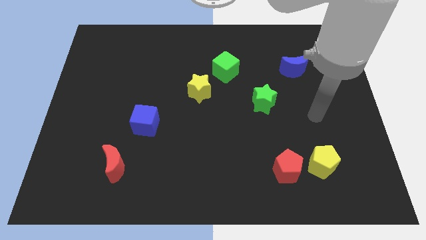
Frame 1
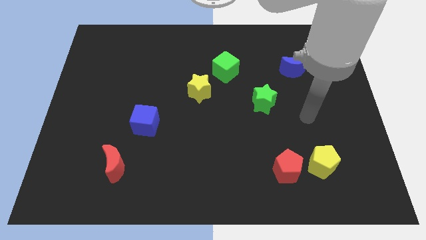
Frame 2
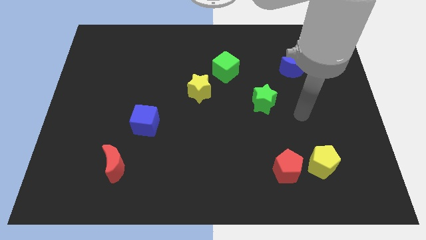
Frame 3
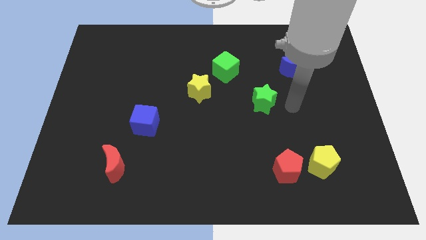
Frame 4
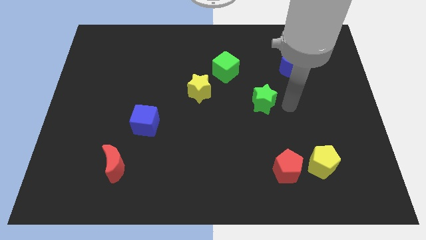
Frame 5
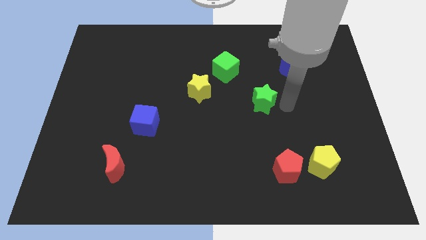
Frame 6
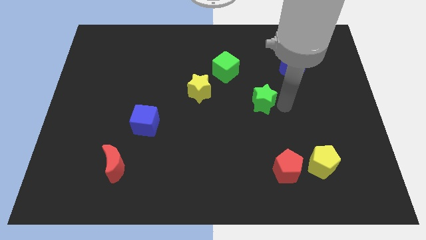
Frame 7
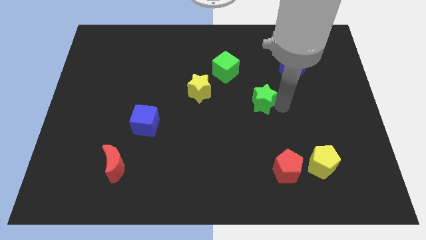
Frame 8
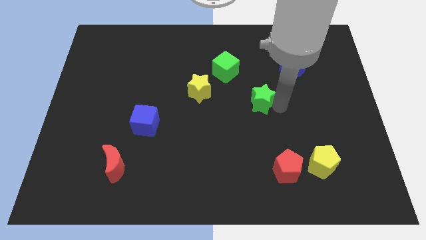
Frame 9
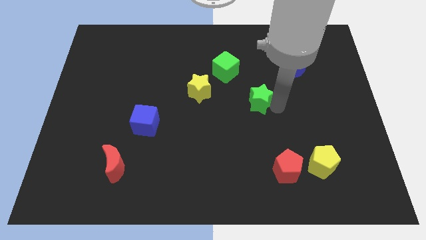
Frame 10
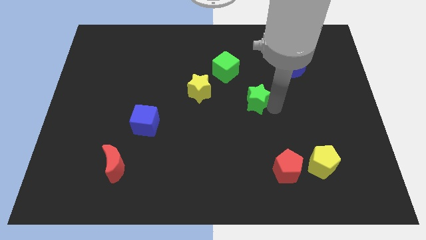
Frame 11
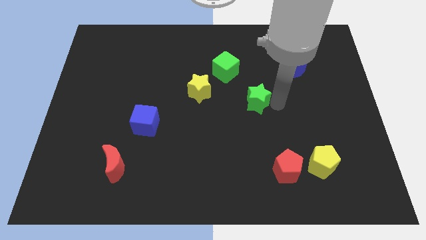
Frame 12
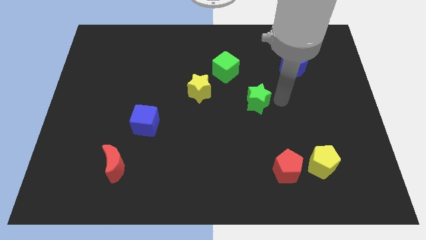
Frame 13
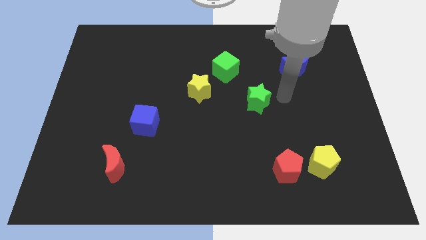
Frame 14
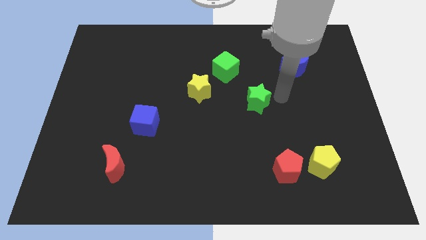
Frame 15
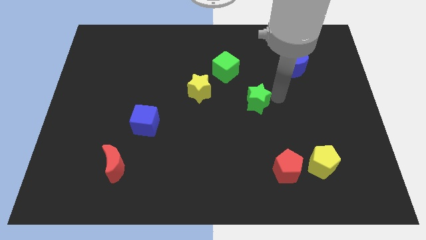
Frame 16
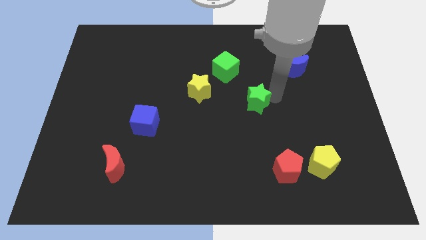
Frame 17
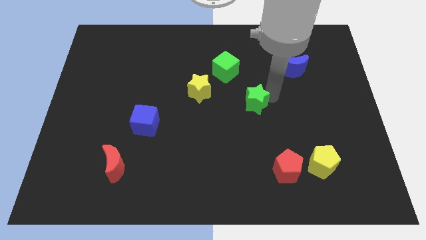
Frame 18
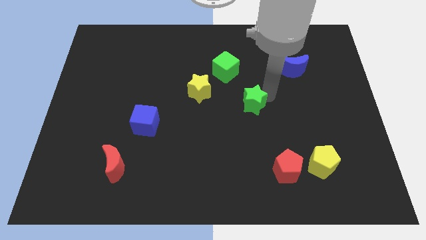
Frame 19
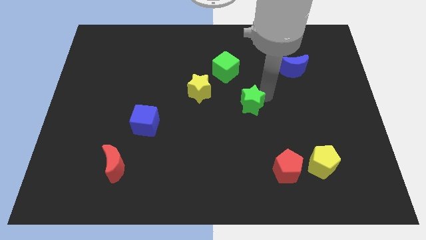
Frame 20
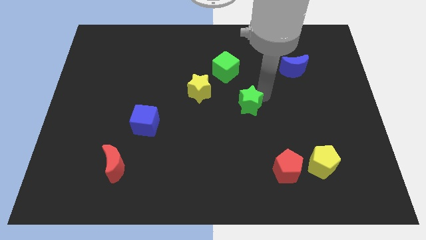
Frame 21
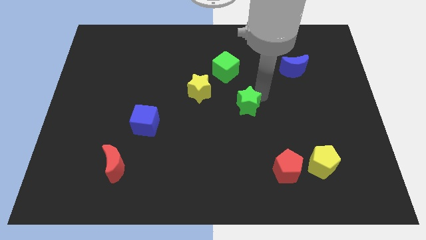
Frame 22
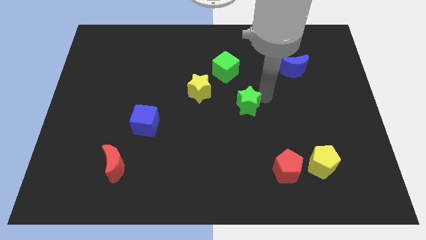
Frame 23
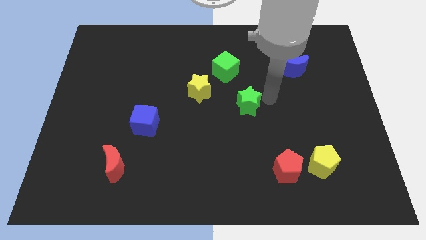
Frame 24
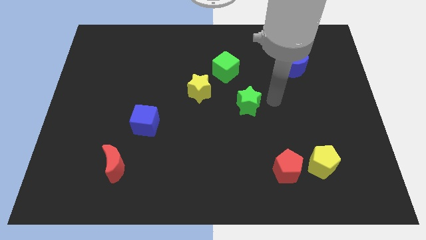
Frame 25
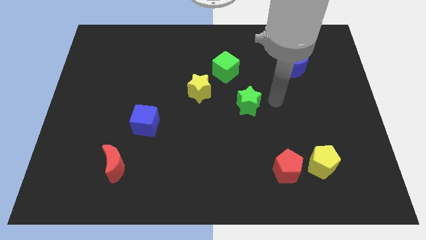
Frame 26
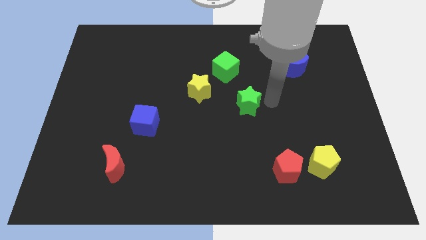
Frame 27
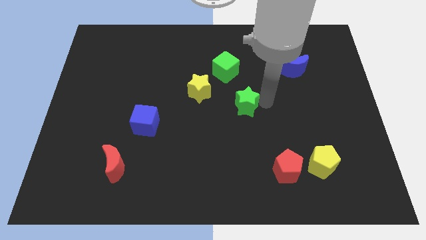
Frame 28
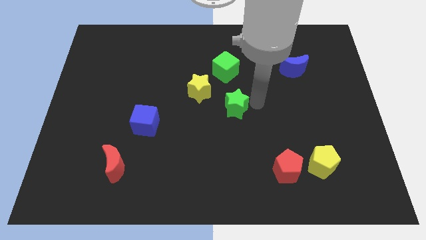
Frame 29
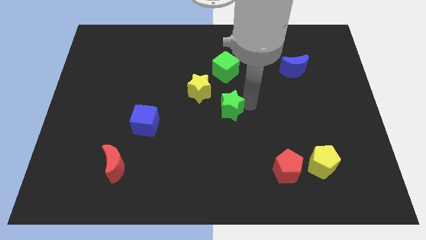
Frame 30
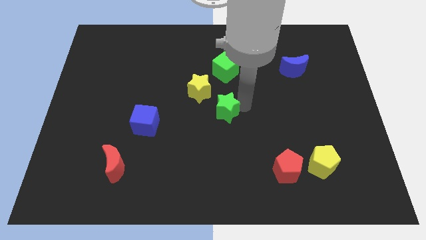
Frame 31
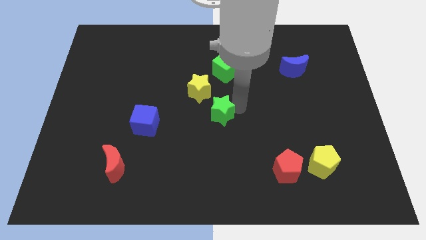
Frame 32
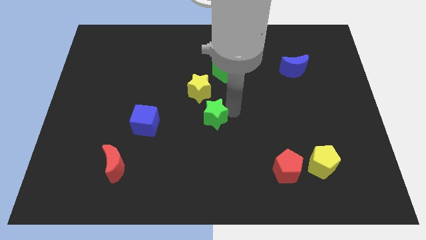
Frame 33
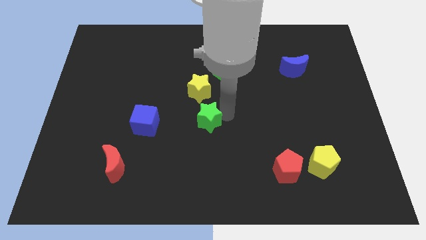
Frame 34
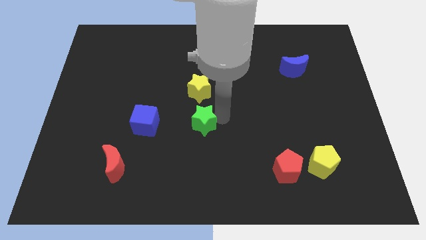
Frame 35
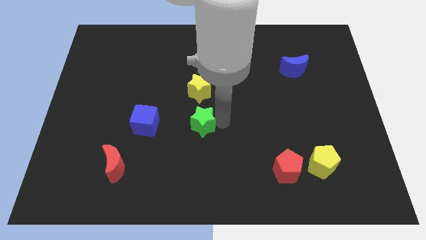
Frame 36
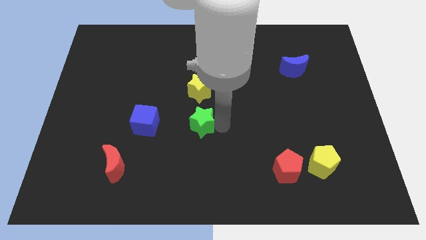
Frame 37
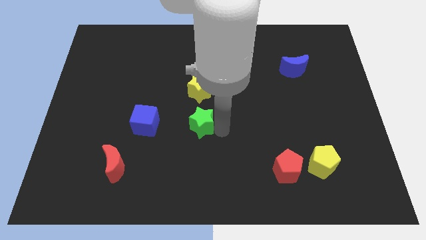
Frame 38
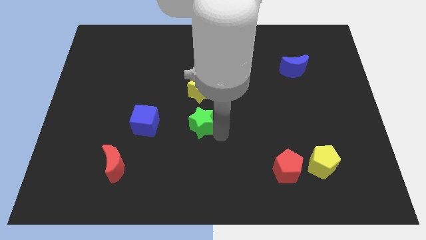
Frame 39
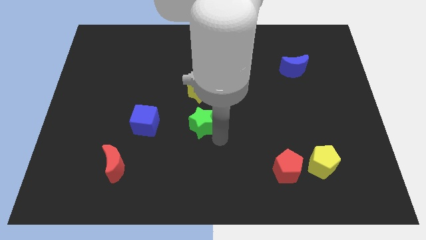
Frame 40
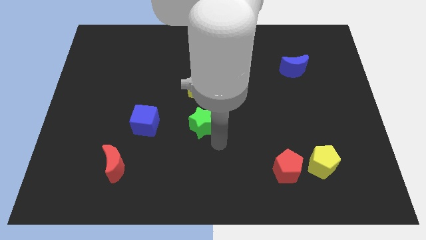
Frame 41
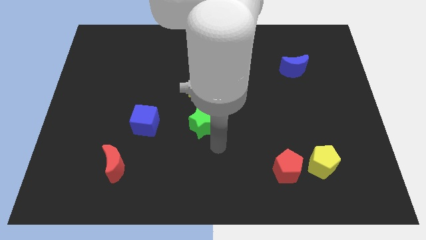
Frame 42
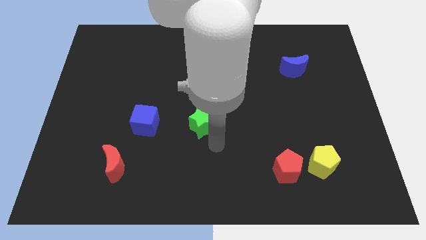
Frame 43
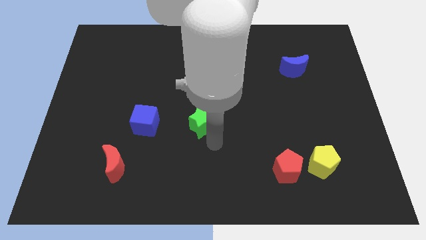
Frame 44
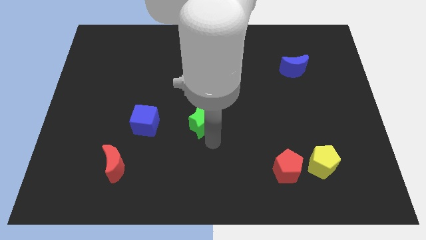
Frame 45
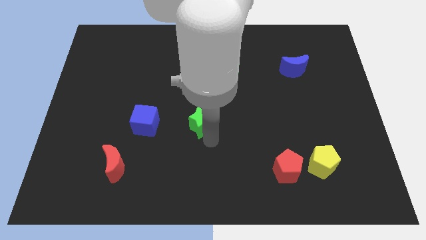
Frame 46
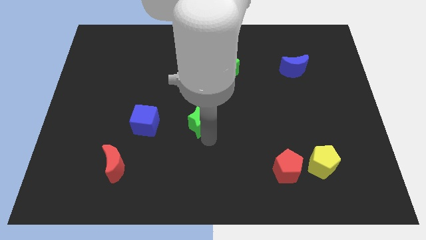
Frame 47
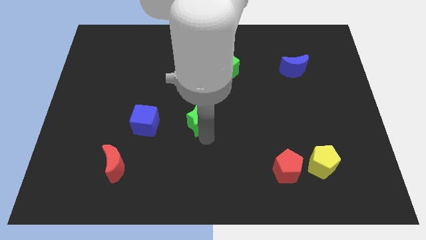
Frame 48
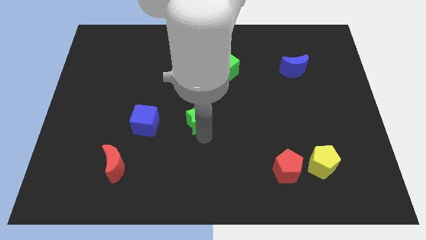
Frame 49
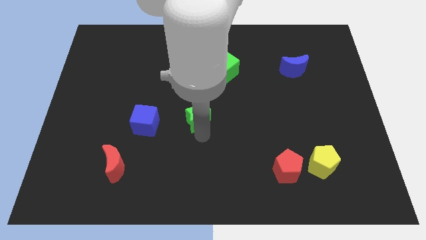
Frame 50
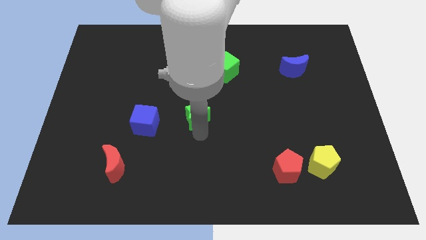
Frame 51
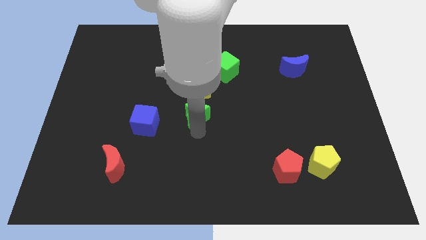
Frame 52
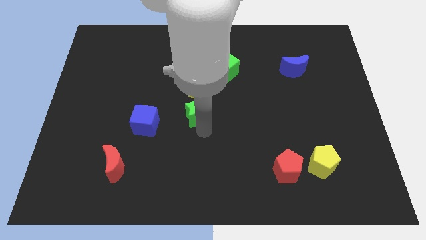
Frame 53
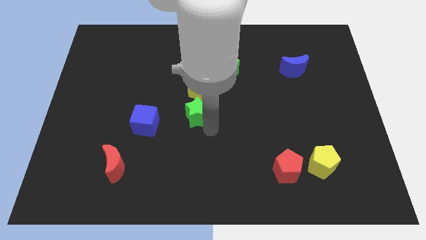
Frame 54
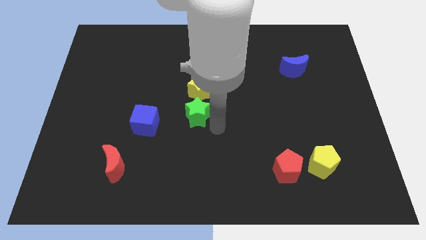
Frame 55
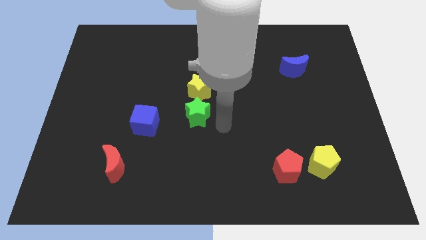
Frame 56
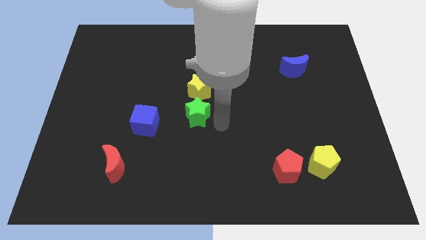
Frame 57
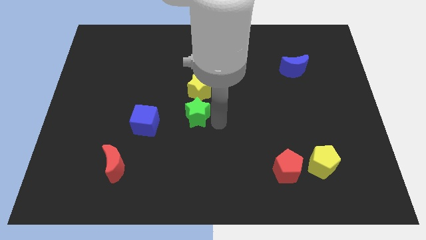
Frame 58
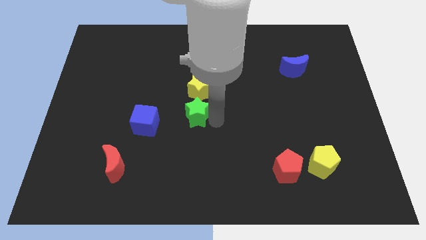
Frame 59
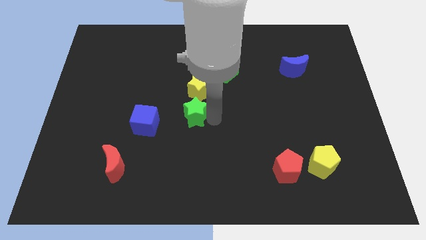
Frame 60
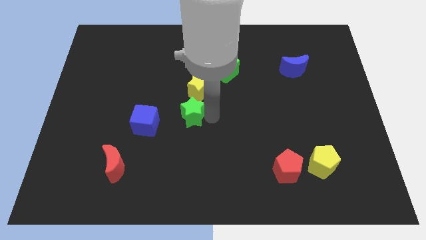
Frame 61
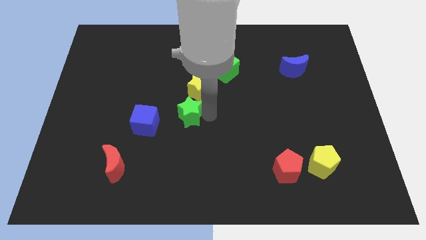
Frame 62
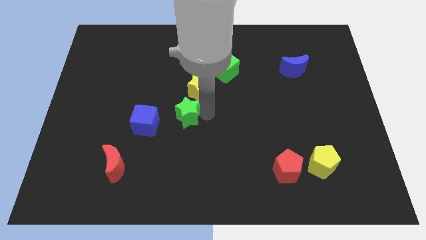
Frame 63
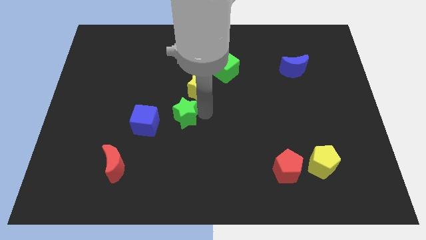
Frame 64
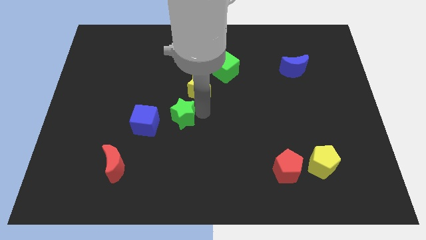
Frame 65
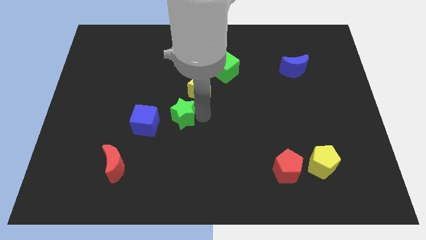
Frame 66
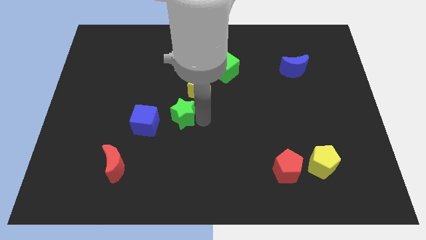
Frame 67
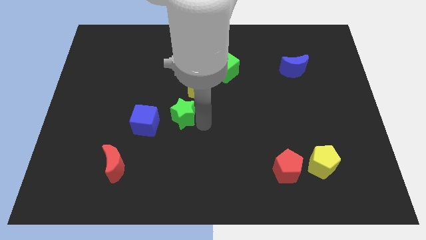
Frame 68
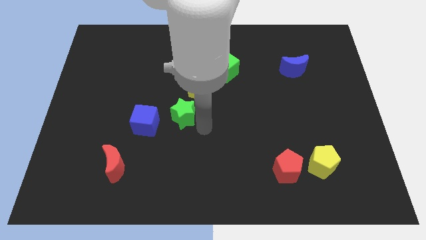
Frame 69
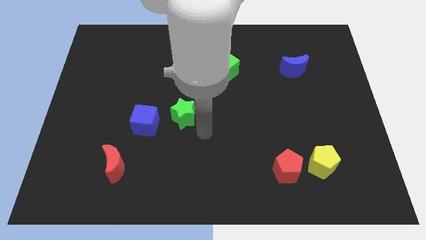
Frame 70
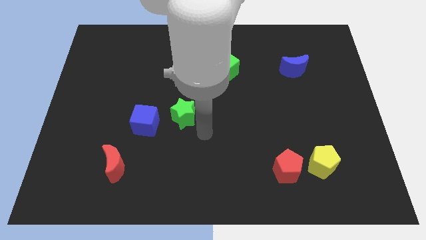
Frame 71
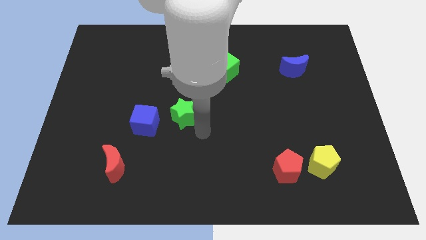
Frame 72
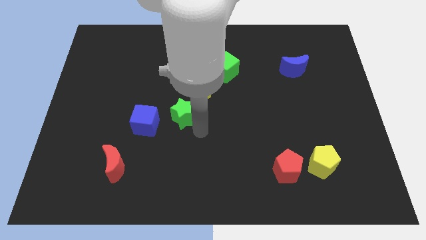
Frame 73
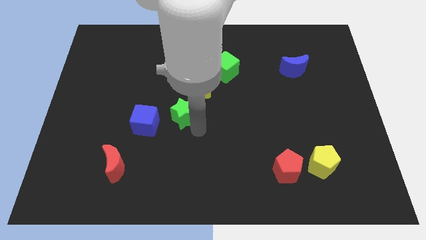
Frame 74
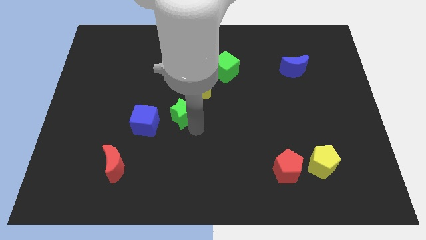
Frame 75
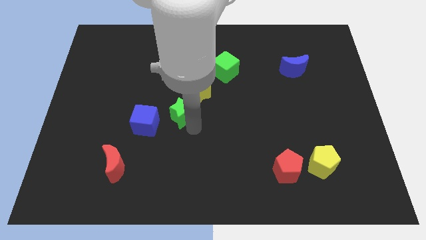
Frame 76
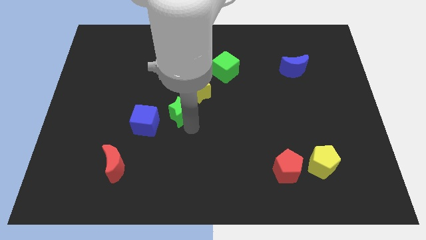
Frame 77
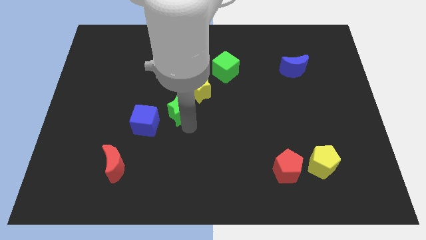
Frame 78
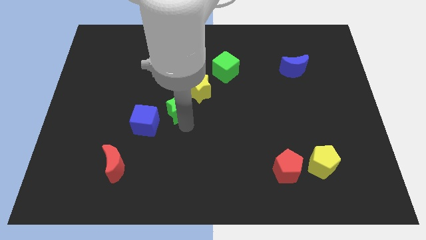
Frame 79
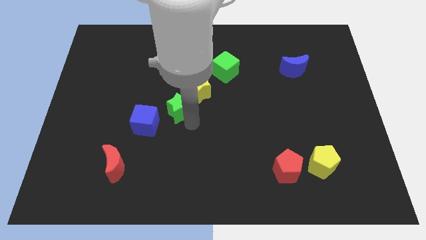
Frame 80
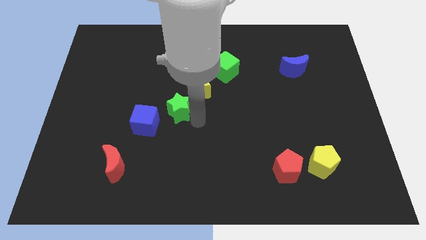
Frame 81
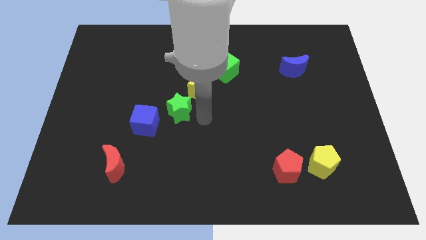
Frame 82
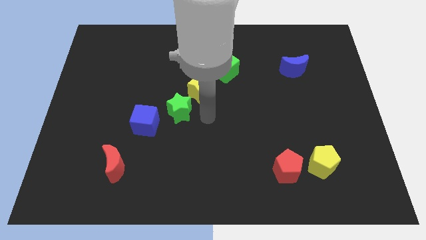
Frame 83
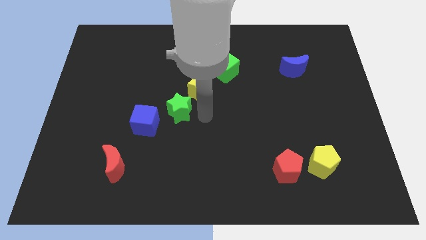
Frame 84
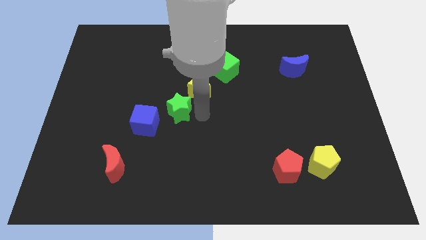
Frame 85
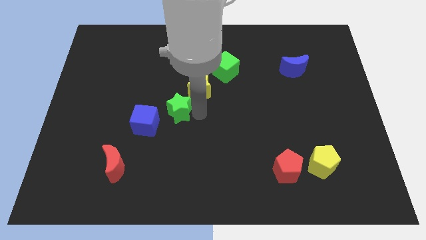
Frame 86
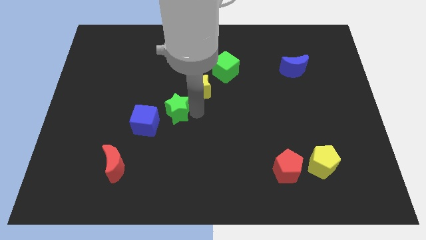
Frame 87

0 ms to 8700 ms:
push the green star left
